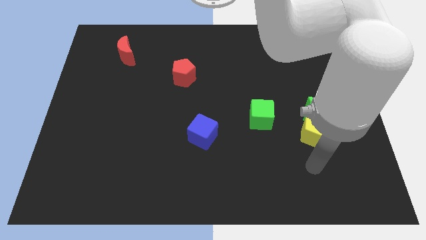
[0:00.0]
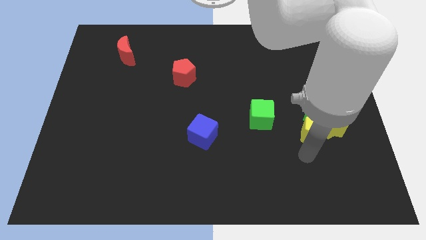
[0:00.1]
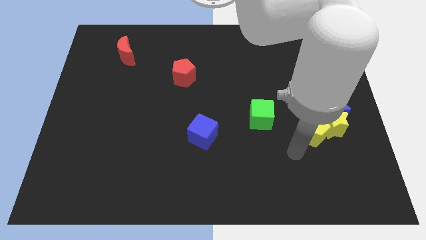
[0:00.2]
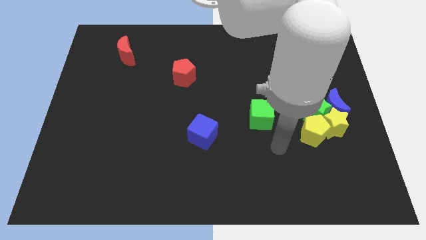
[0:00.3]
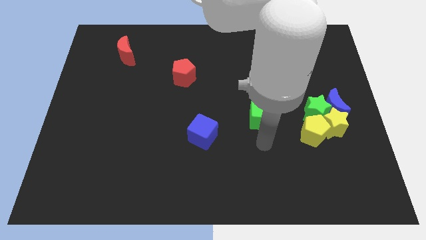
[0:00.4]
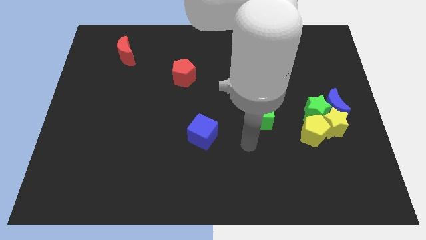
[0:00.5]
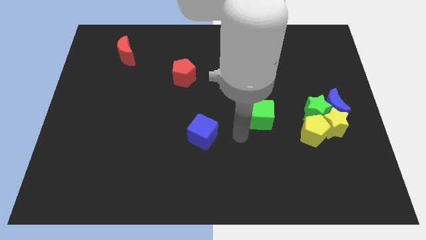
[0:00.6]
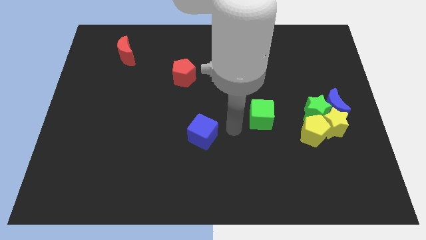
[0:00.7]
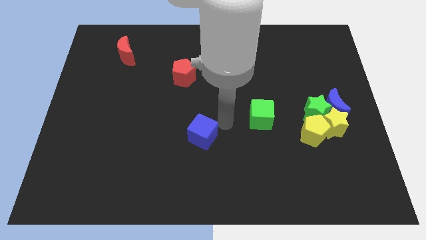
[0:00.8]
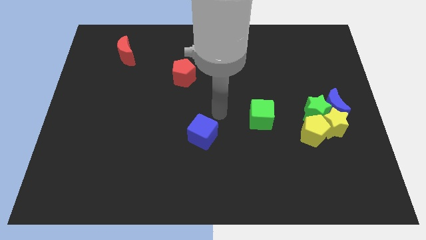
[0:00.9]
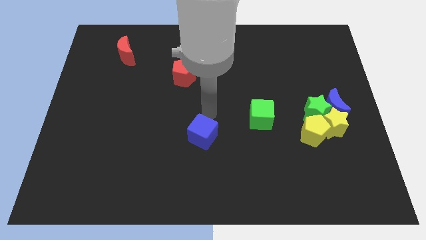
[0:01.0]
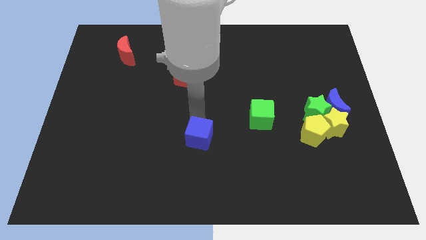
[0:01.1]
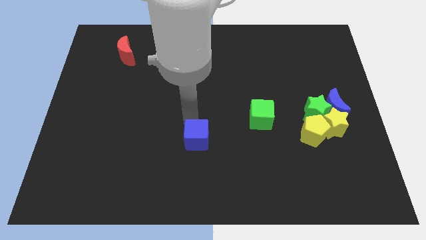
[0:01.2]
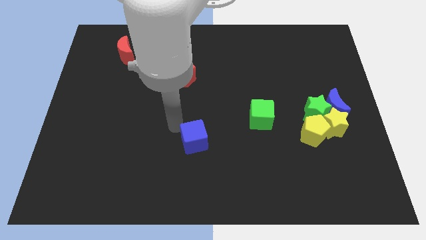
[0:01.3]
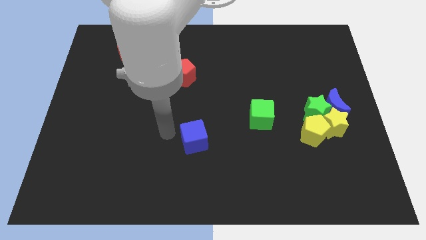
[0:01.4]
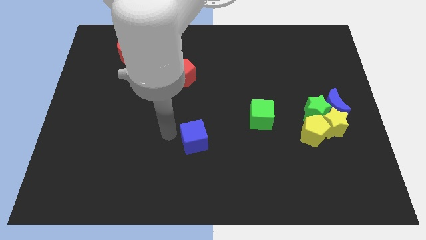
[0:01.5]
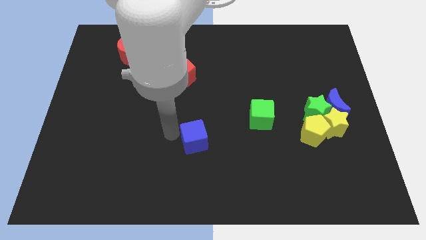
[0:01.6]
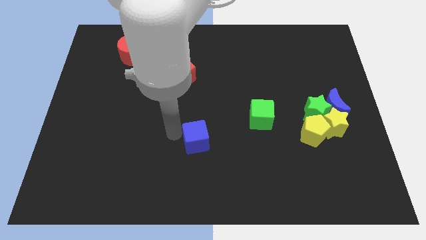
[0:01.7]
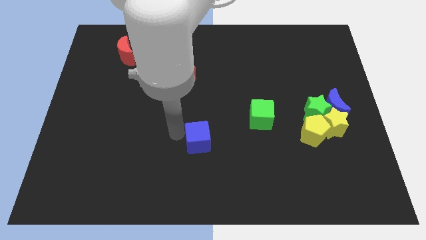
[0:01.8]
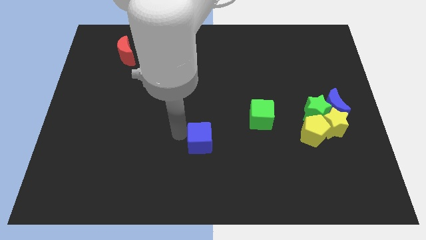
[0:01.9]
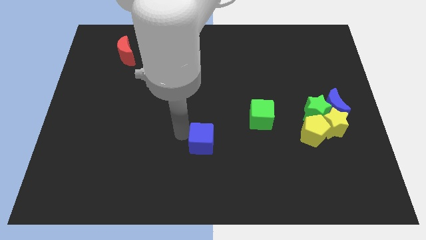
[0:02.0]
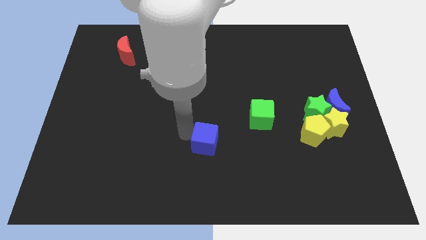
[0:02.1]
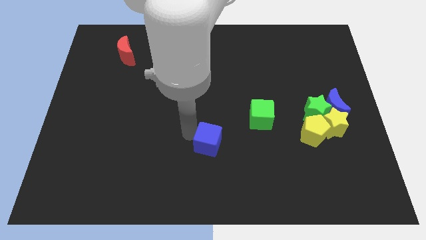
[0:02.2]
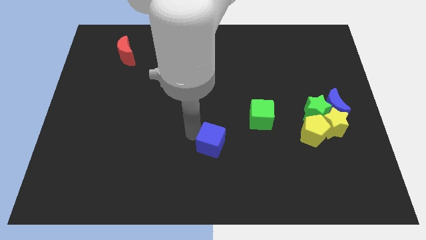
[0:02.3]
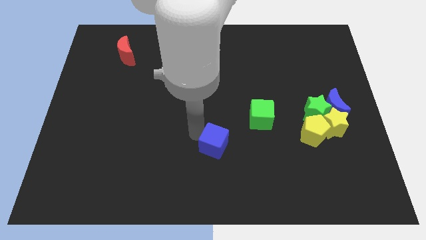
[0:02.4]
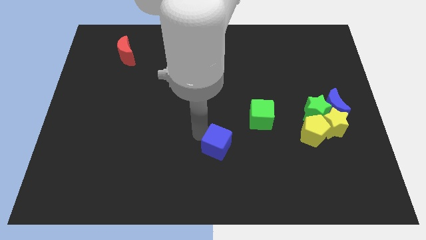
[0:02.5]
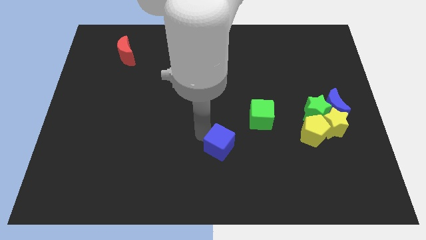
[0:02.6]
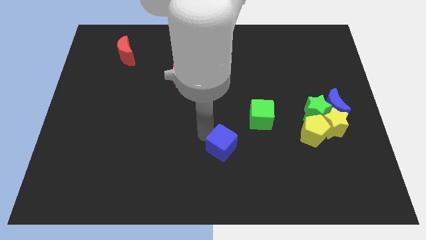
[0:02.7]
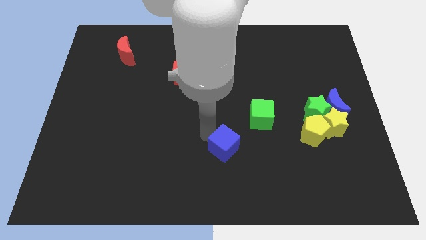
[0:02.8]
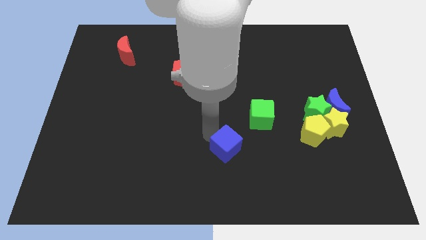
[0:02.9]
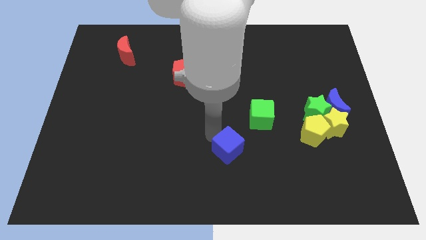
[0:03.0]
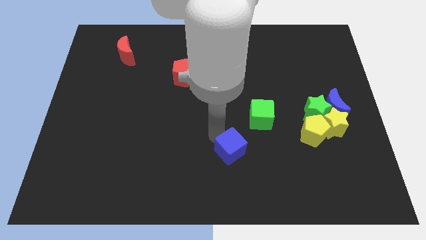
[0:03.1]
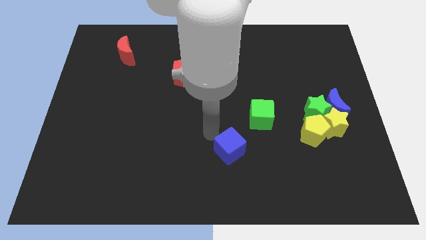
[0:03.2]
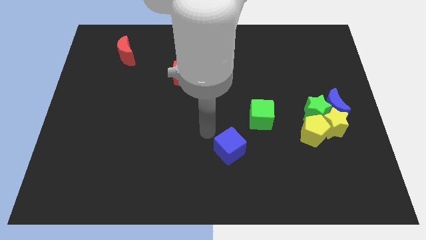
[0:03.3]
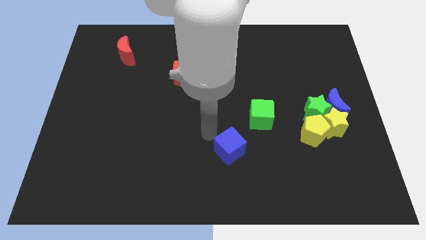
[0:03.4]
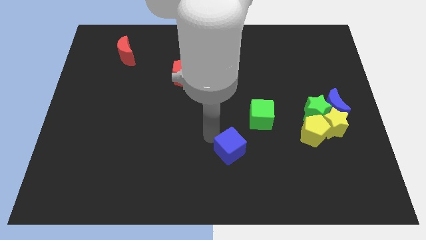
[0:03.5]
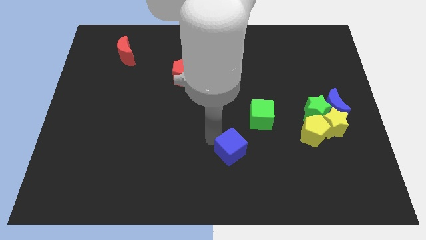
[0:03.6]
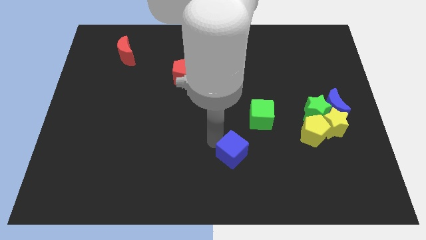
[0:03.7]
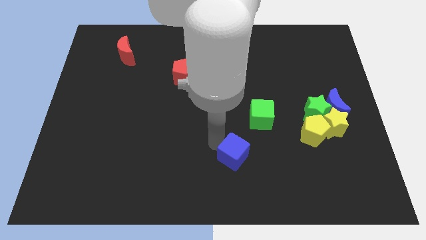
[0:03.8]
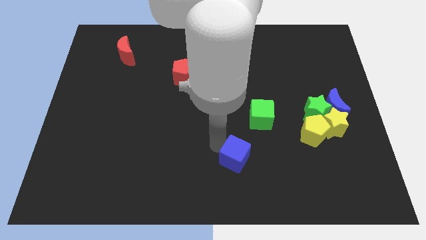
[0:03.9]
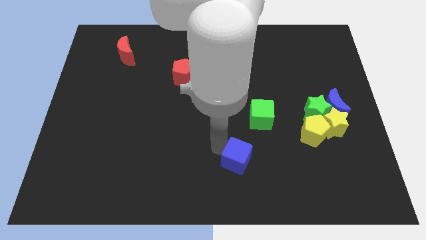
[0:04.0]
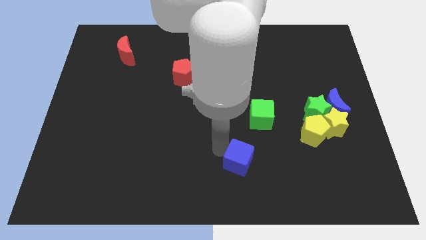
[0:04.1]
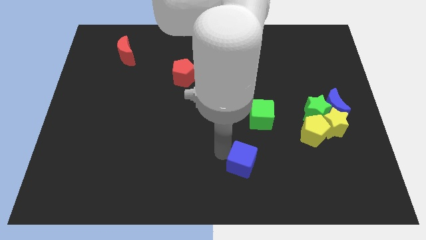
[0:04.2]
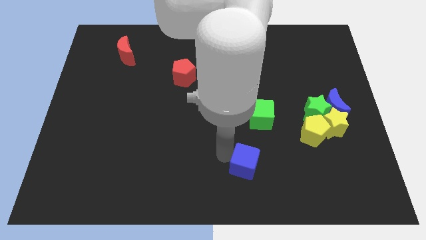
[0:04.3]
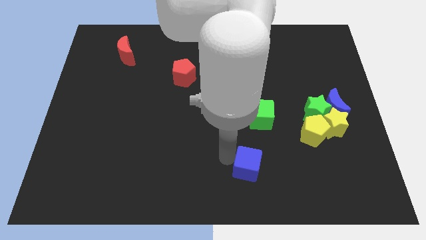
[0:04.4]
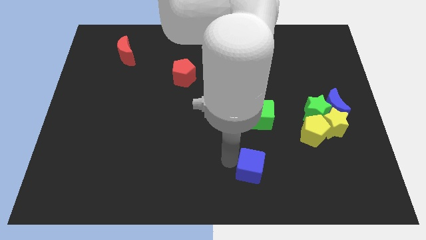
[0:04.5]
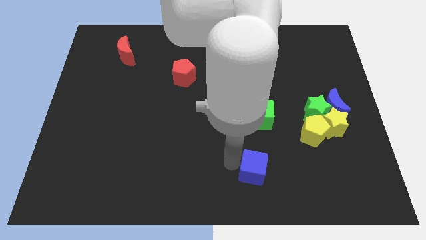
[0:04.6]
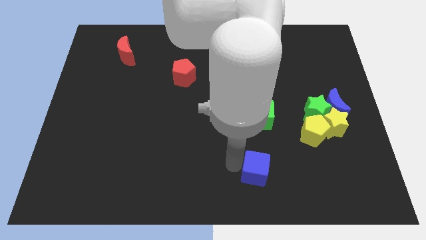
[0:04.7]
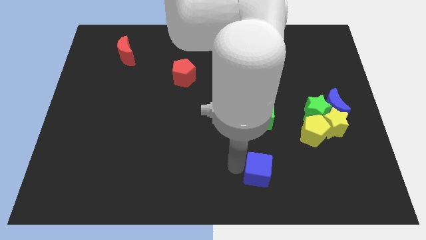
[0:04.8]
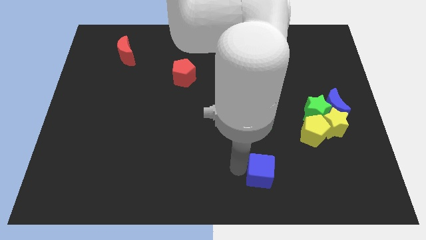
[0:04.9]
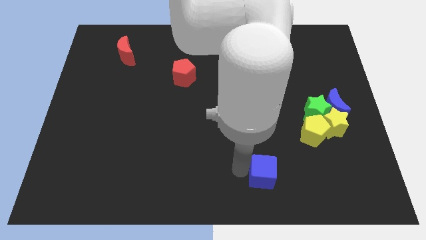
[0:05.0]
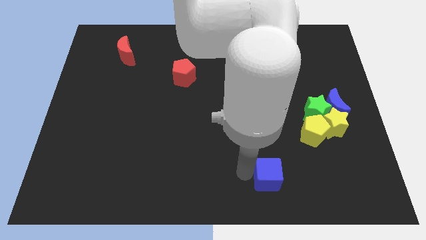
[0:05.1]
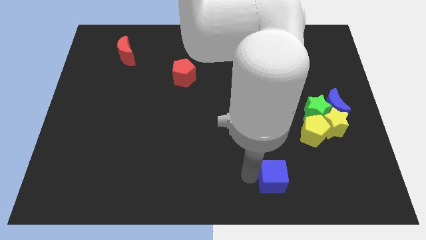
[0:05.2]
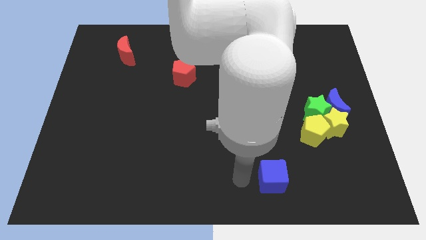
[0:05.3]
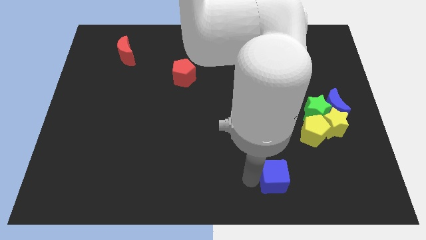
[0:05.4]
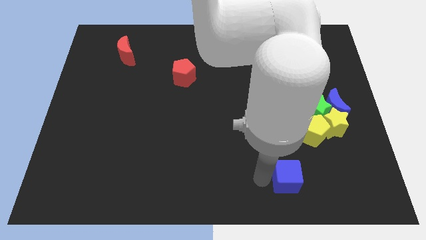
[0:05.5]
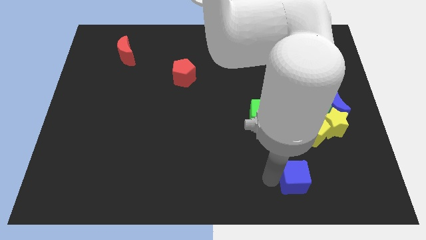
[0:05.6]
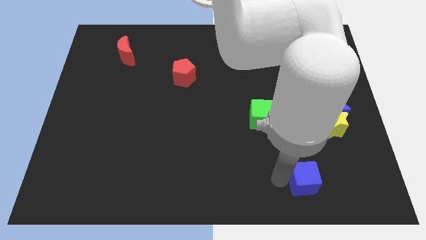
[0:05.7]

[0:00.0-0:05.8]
move the blue cube below the yellow pentagon

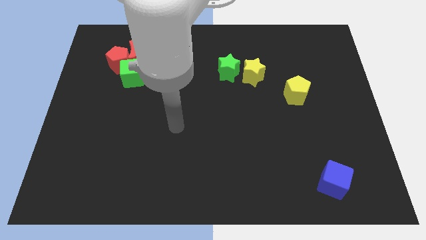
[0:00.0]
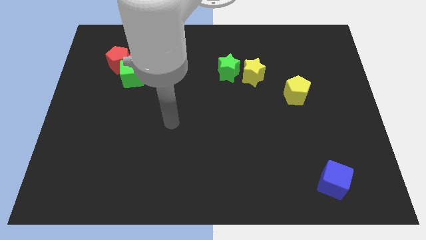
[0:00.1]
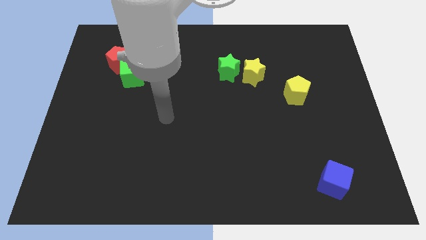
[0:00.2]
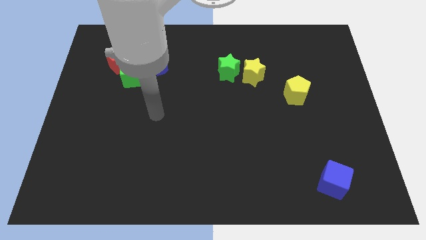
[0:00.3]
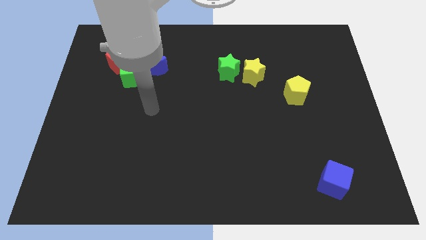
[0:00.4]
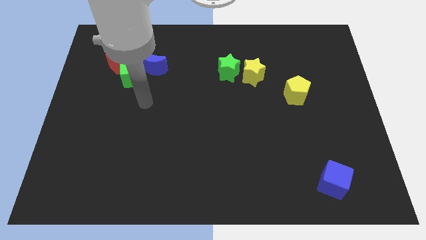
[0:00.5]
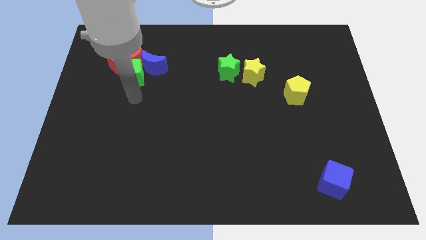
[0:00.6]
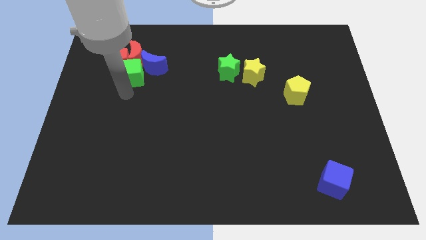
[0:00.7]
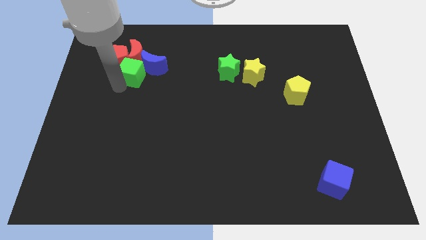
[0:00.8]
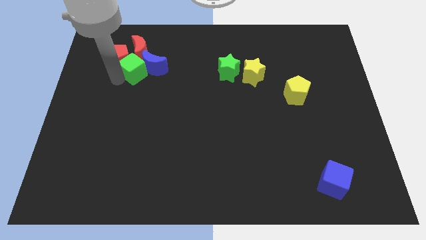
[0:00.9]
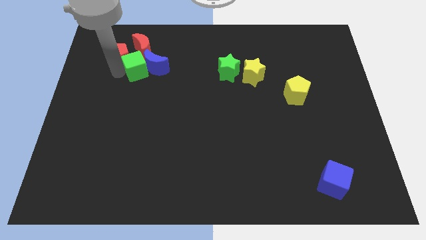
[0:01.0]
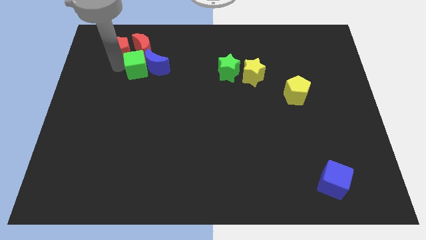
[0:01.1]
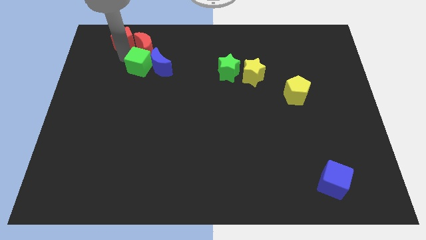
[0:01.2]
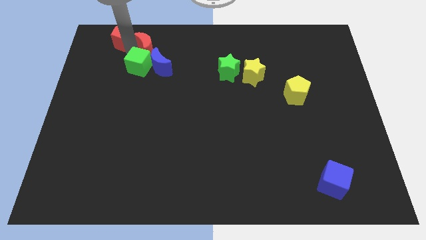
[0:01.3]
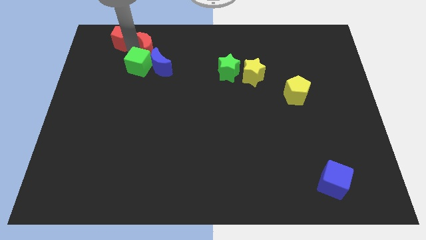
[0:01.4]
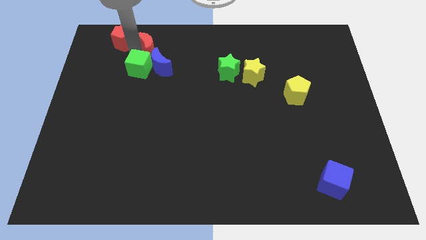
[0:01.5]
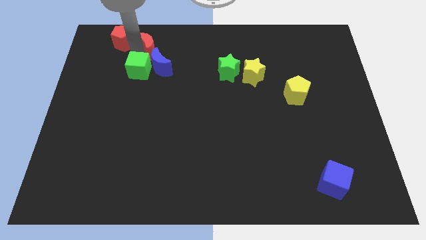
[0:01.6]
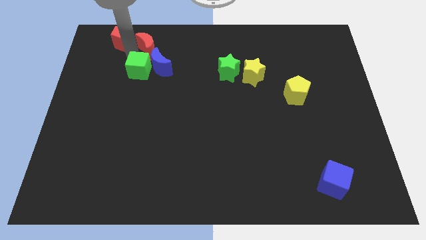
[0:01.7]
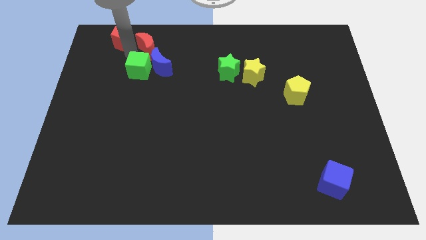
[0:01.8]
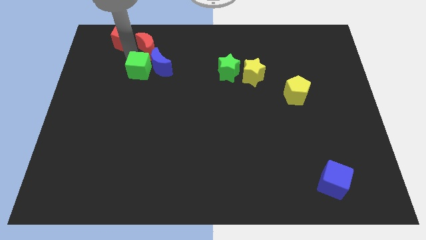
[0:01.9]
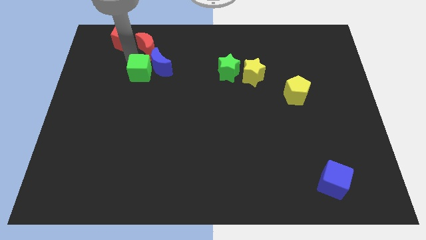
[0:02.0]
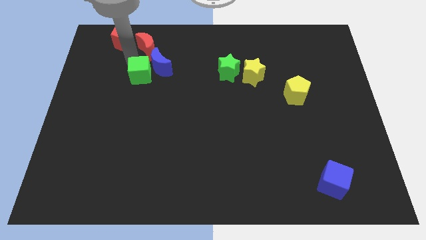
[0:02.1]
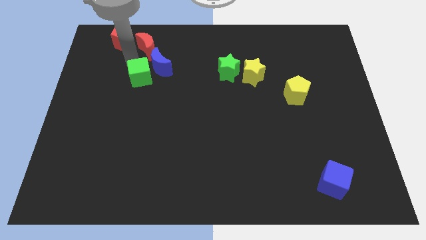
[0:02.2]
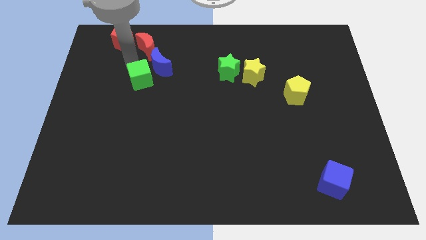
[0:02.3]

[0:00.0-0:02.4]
slide the green cube to the bottom of the blue moon
